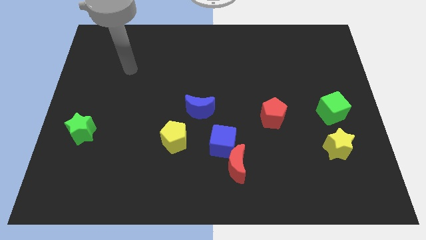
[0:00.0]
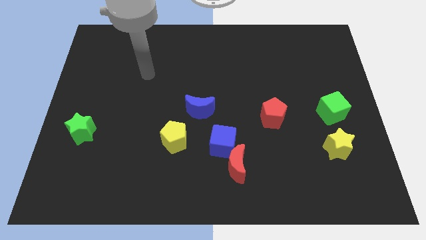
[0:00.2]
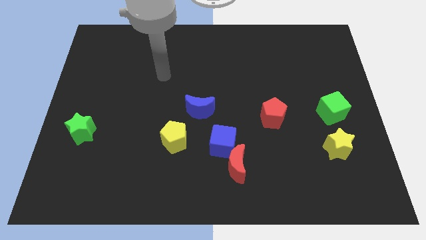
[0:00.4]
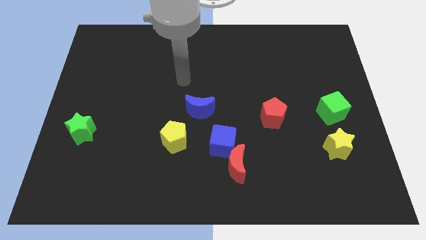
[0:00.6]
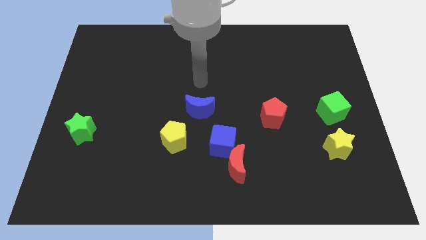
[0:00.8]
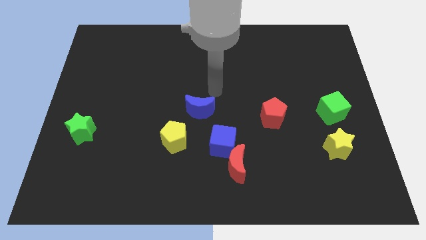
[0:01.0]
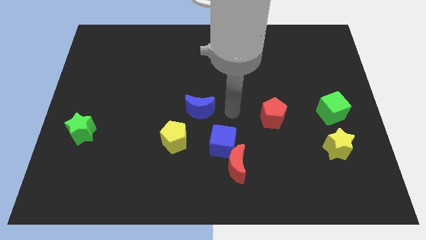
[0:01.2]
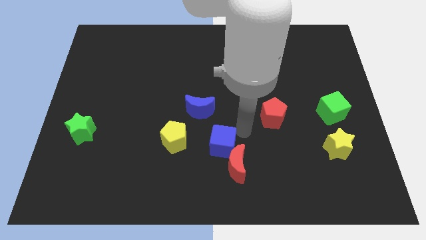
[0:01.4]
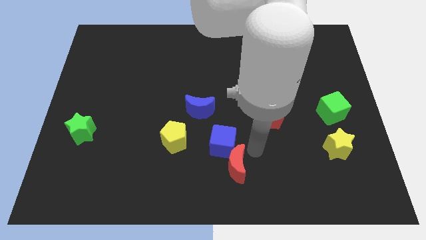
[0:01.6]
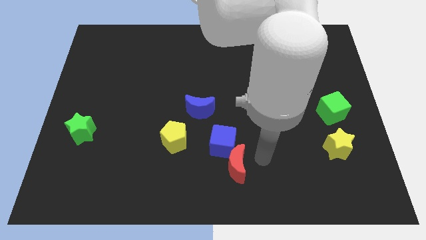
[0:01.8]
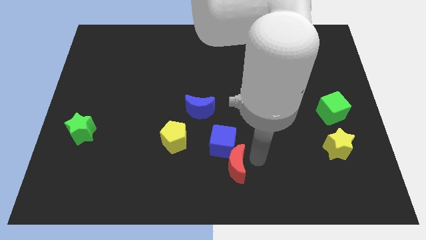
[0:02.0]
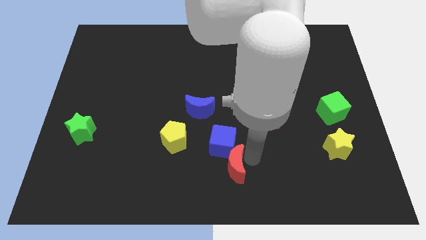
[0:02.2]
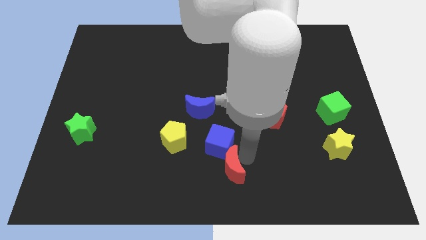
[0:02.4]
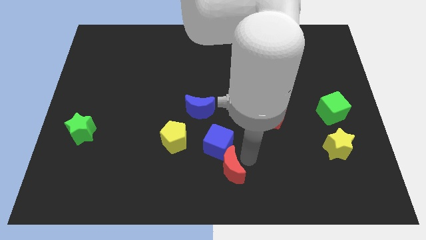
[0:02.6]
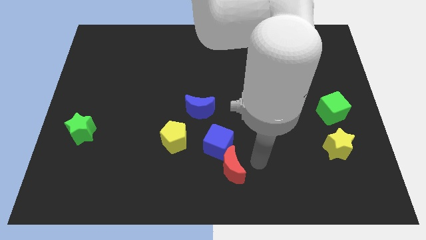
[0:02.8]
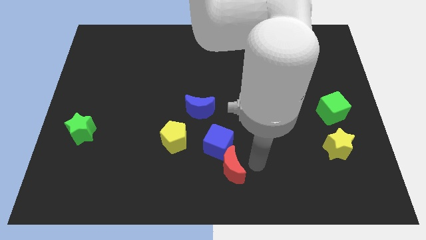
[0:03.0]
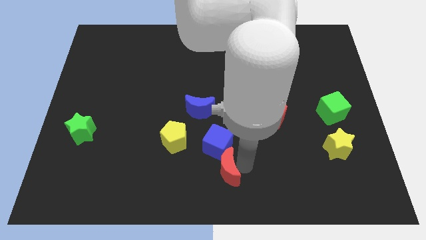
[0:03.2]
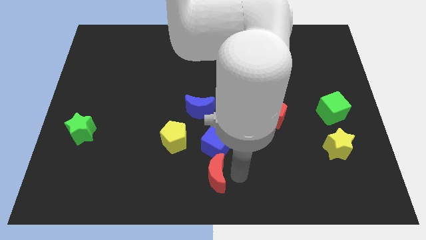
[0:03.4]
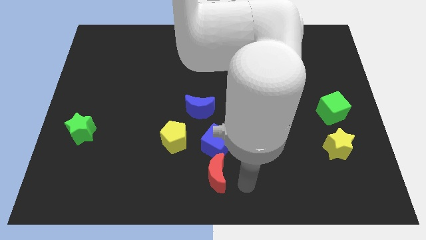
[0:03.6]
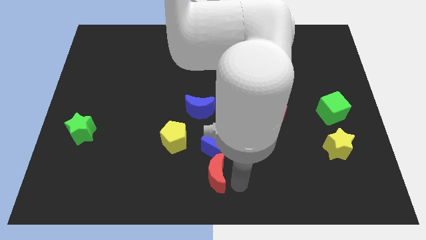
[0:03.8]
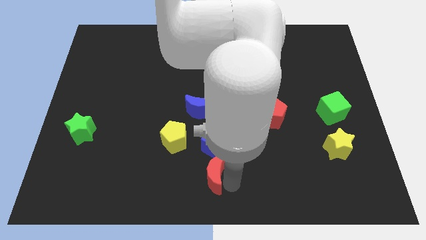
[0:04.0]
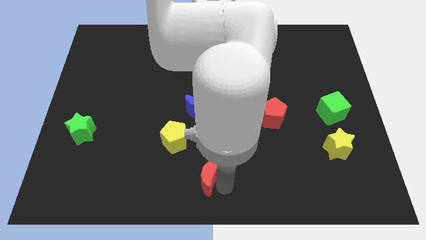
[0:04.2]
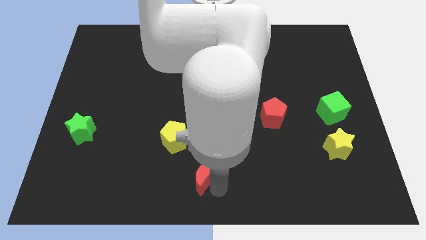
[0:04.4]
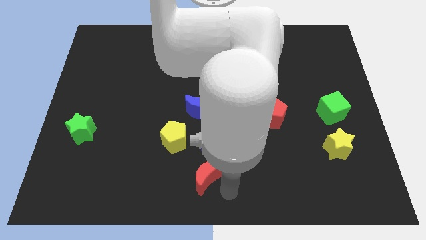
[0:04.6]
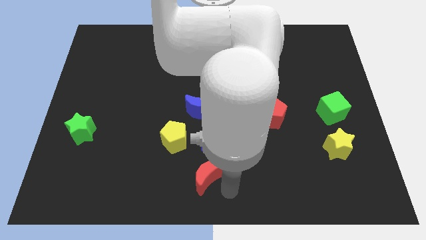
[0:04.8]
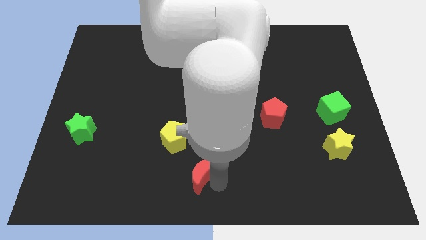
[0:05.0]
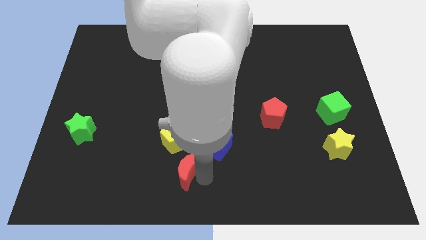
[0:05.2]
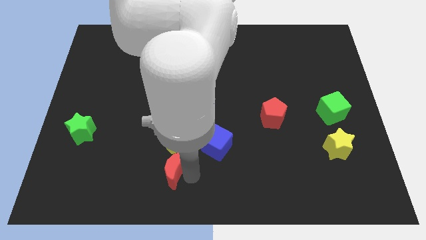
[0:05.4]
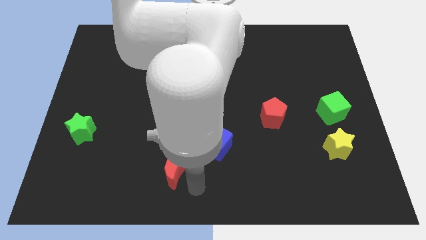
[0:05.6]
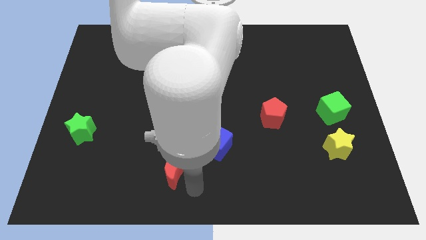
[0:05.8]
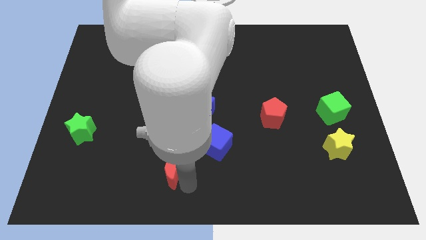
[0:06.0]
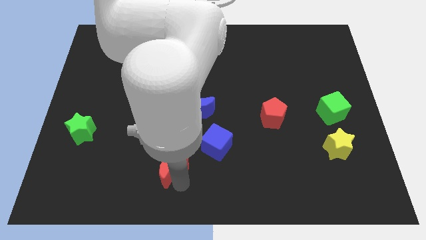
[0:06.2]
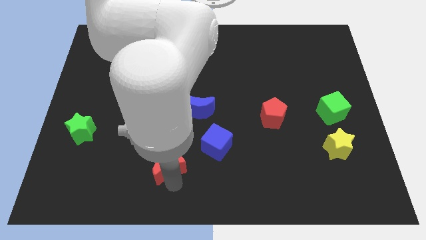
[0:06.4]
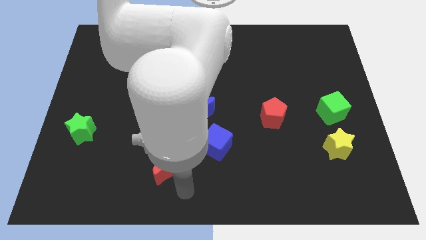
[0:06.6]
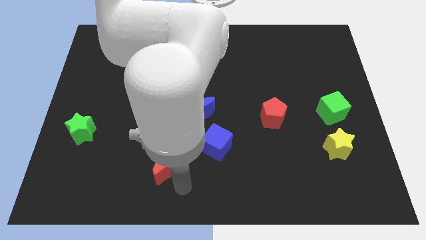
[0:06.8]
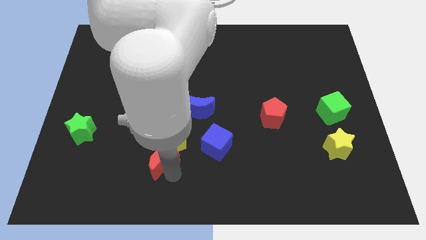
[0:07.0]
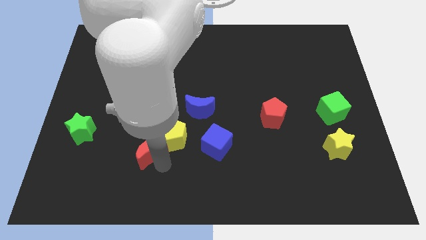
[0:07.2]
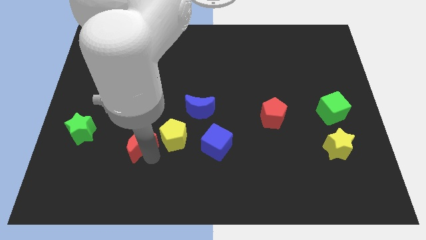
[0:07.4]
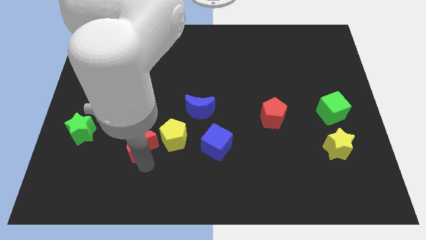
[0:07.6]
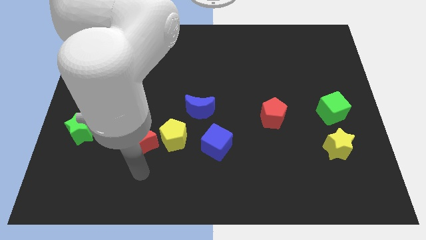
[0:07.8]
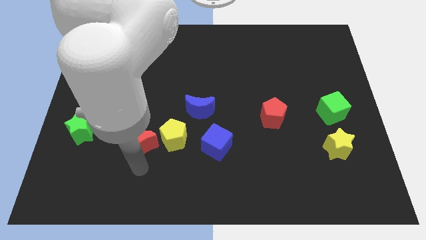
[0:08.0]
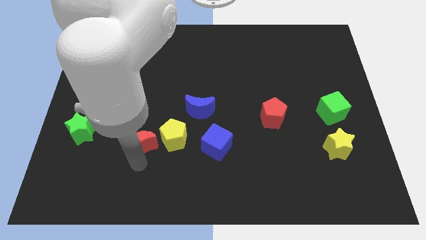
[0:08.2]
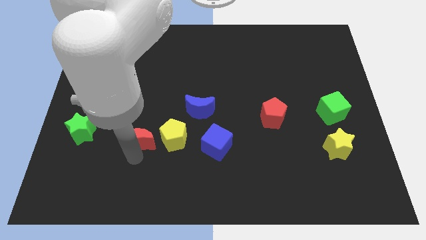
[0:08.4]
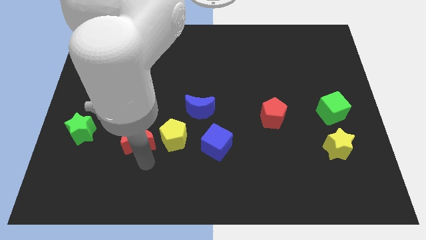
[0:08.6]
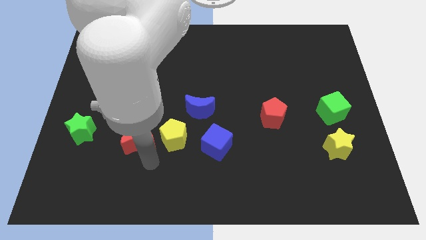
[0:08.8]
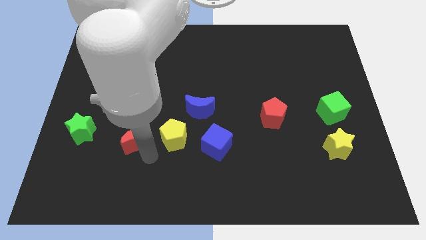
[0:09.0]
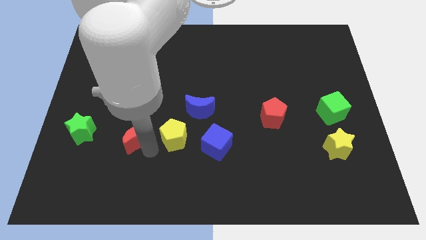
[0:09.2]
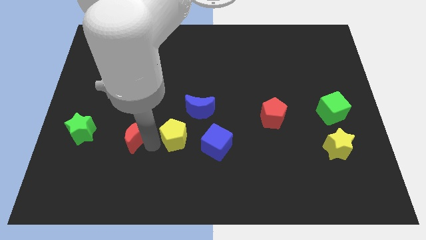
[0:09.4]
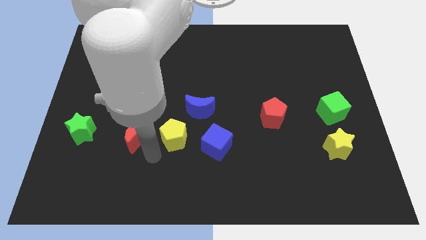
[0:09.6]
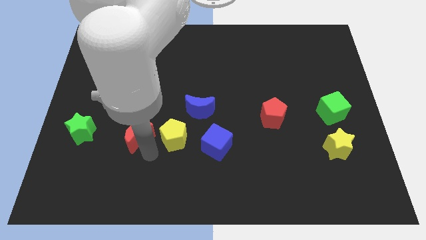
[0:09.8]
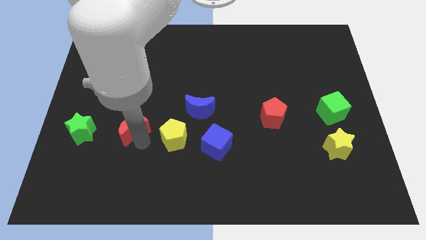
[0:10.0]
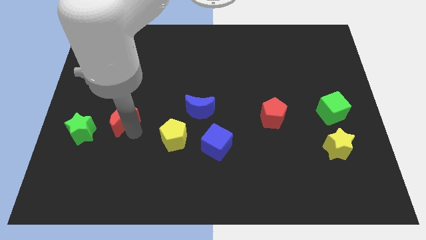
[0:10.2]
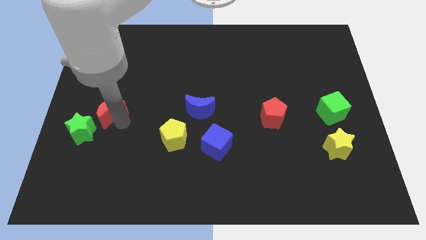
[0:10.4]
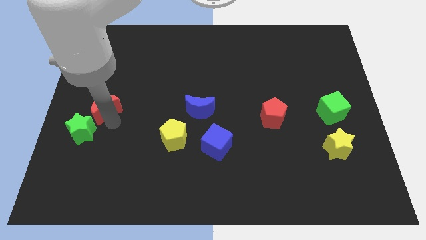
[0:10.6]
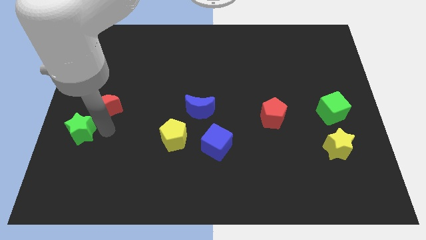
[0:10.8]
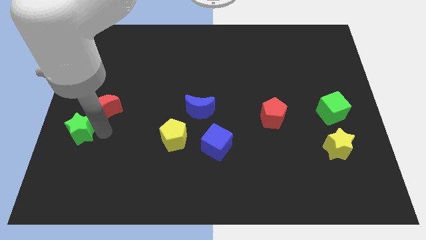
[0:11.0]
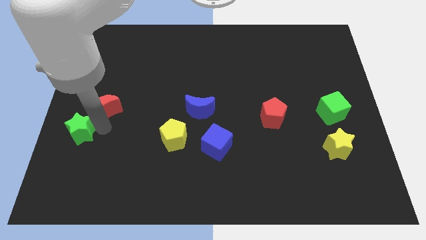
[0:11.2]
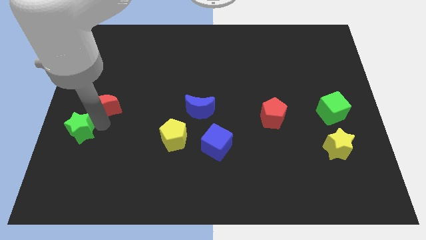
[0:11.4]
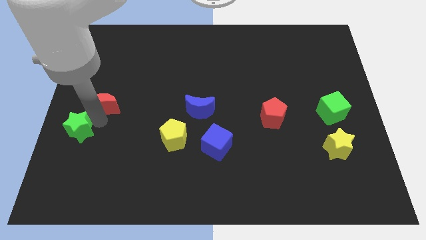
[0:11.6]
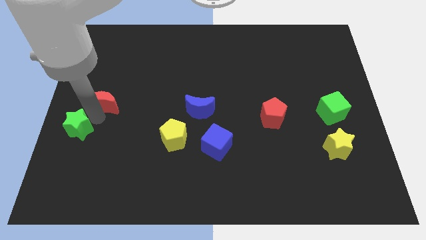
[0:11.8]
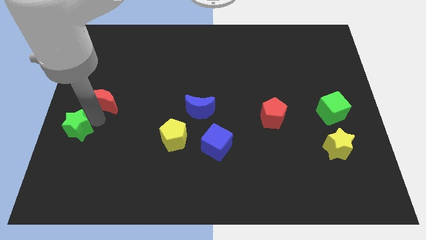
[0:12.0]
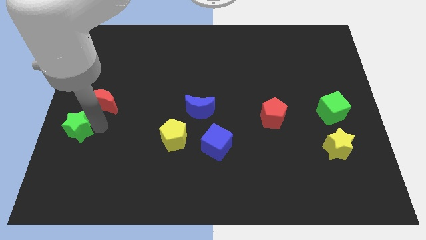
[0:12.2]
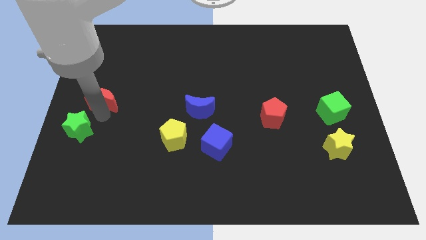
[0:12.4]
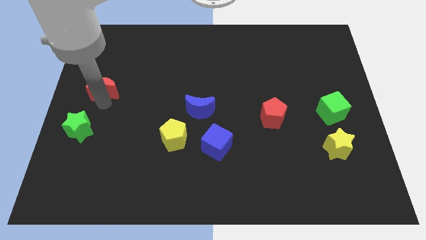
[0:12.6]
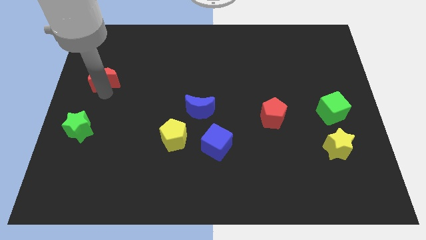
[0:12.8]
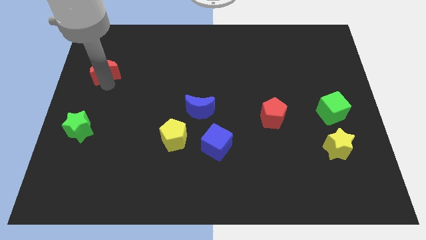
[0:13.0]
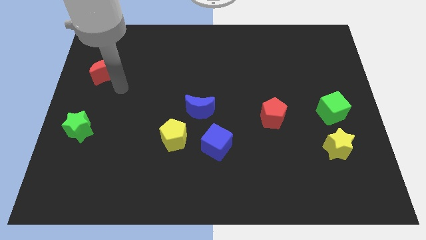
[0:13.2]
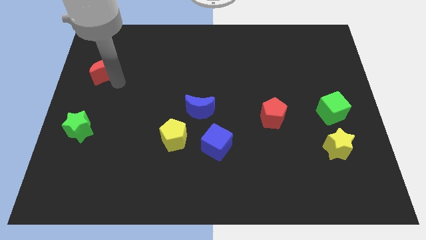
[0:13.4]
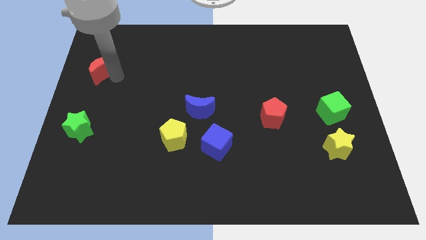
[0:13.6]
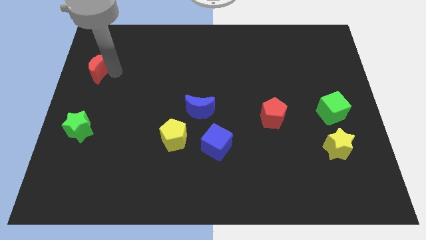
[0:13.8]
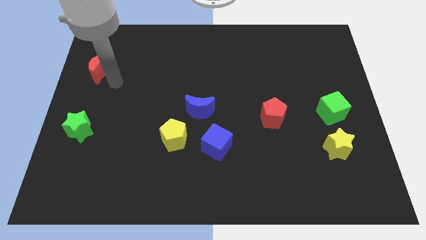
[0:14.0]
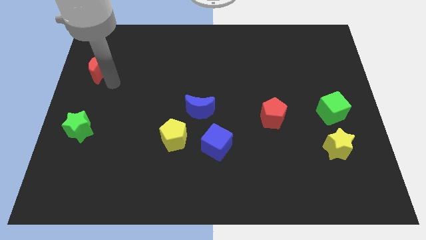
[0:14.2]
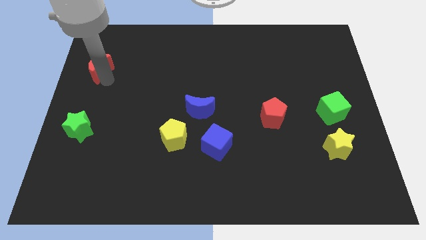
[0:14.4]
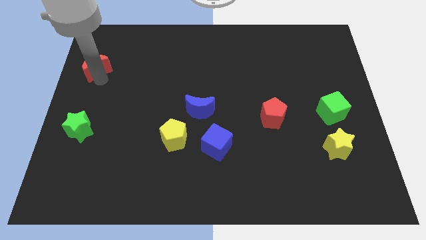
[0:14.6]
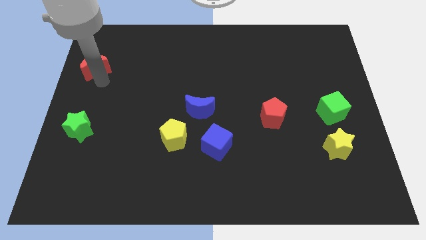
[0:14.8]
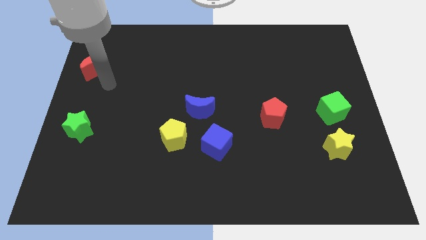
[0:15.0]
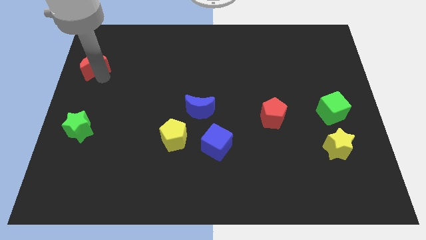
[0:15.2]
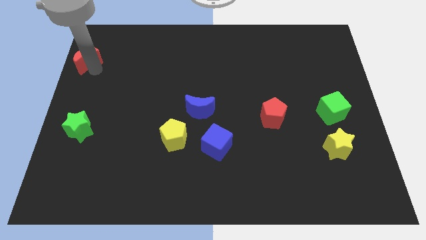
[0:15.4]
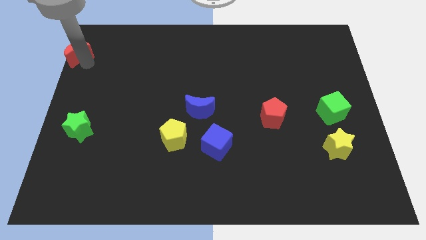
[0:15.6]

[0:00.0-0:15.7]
slide the red moon to the top left corner
